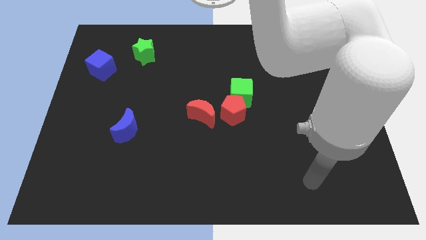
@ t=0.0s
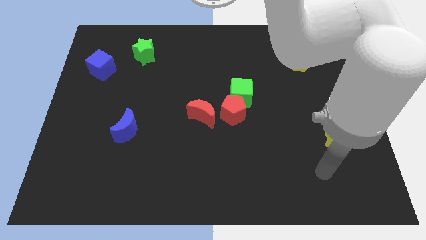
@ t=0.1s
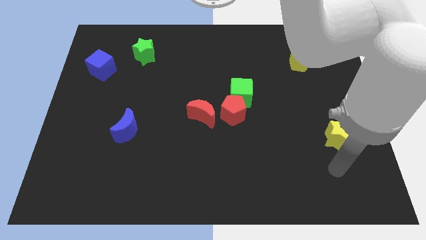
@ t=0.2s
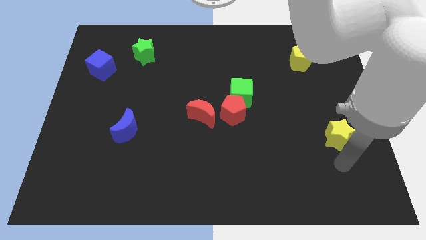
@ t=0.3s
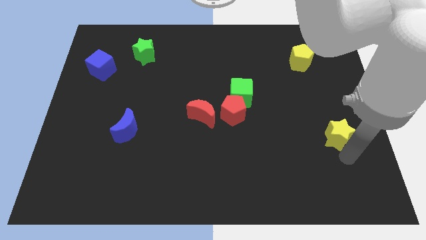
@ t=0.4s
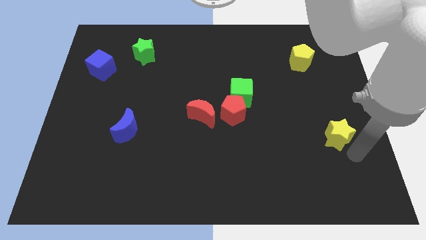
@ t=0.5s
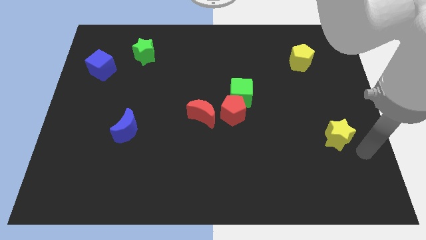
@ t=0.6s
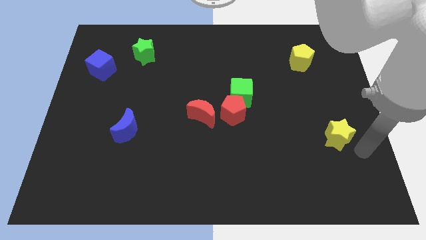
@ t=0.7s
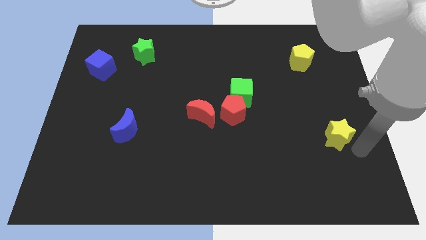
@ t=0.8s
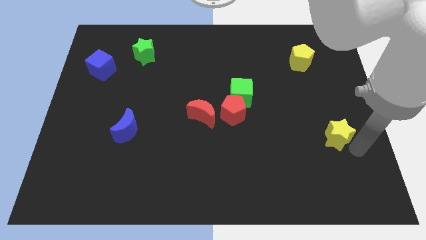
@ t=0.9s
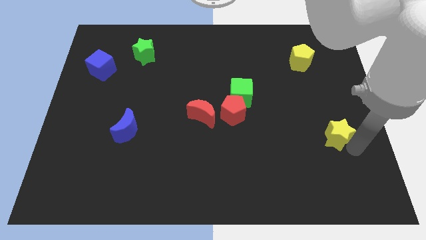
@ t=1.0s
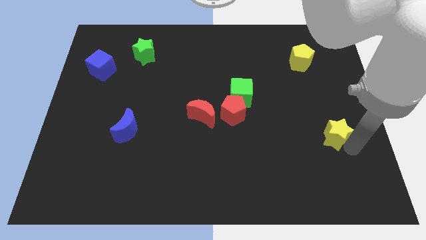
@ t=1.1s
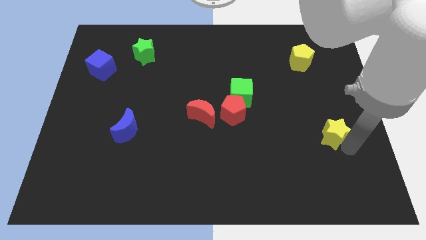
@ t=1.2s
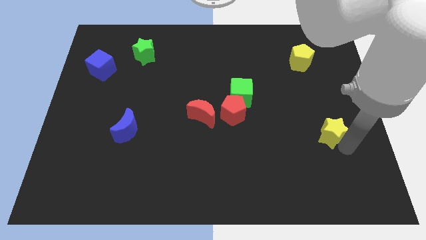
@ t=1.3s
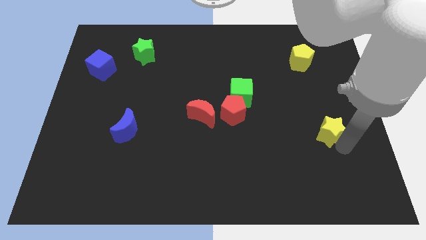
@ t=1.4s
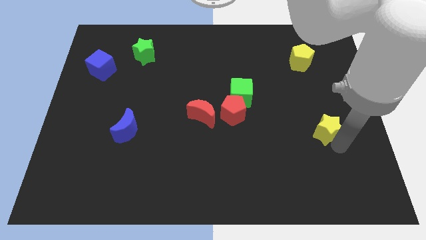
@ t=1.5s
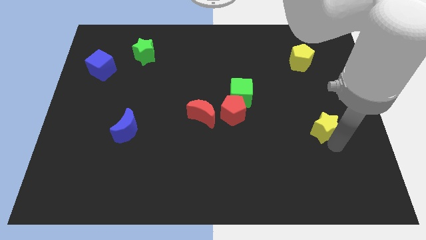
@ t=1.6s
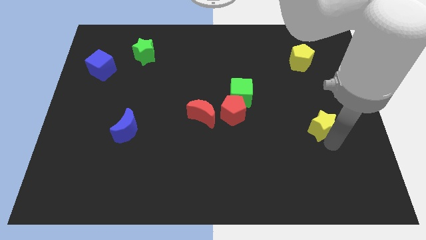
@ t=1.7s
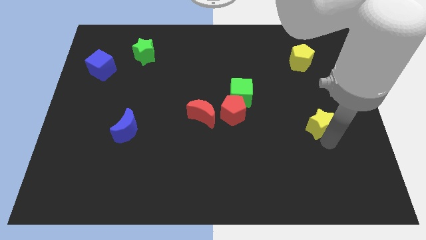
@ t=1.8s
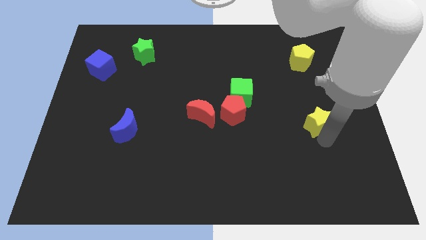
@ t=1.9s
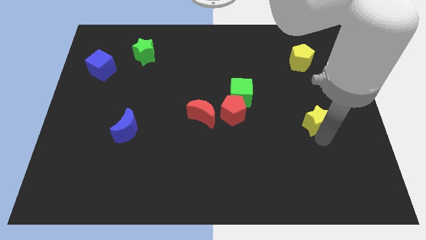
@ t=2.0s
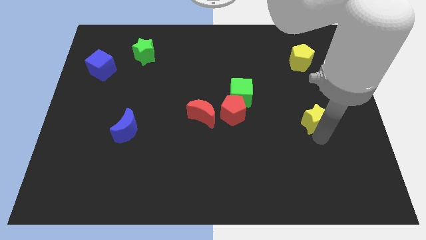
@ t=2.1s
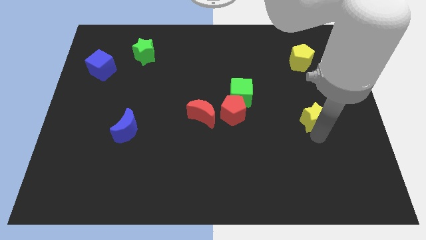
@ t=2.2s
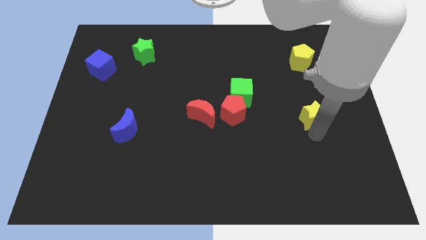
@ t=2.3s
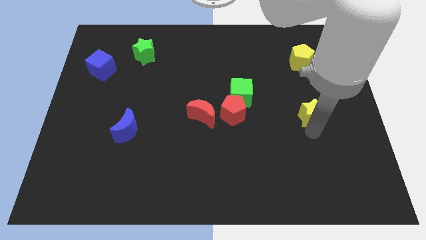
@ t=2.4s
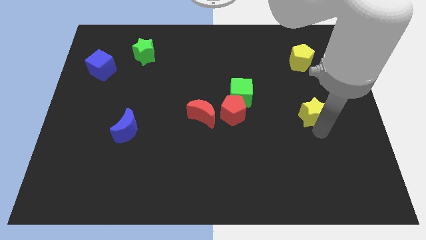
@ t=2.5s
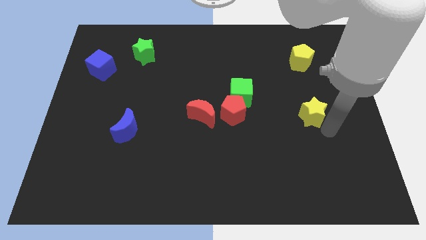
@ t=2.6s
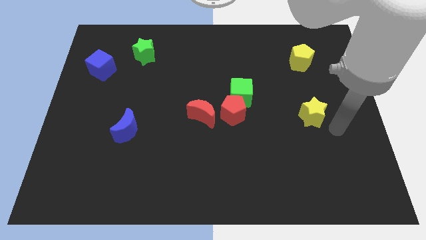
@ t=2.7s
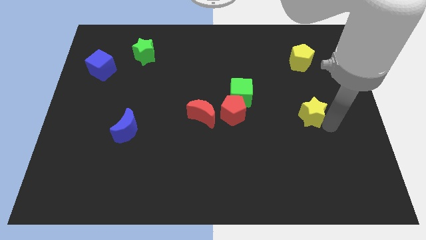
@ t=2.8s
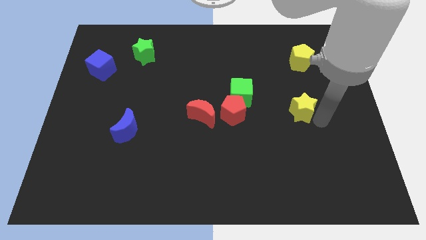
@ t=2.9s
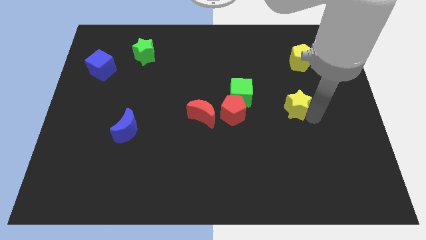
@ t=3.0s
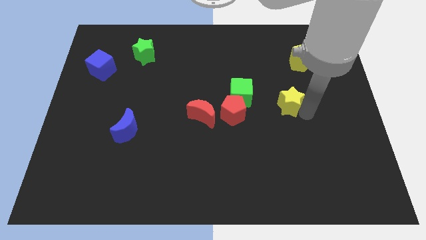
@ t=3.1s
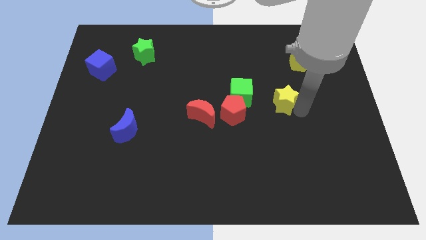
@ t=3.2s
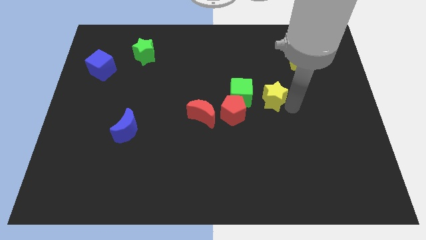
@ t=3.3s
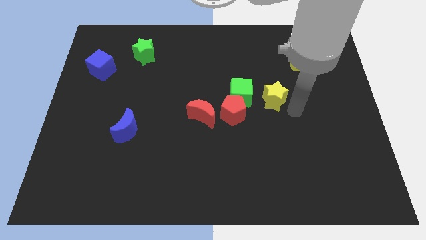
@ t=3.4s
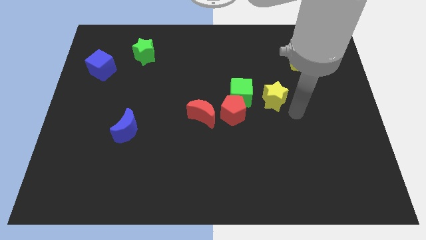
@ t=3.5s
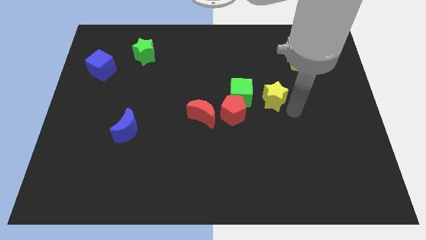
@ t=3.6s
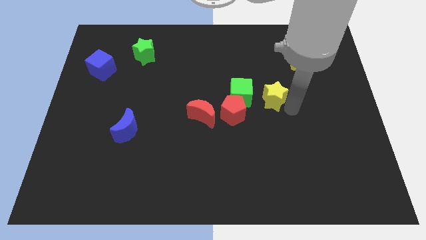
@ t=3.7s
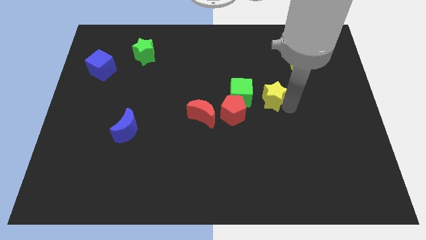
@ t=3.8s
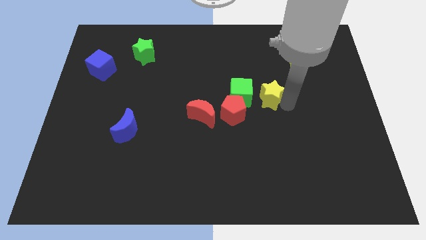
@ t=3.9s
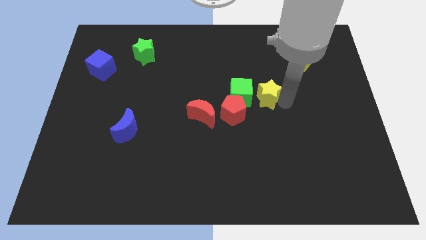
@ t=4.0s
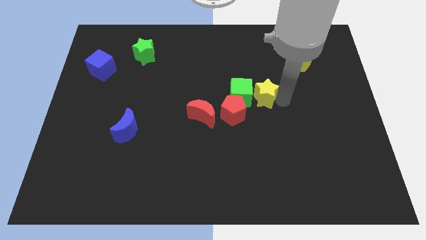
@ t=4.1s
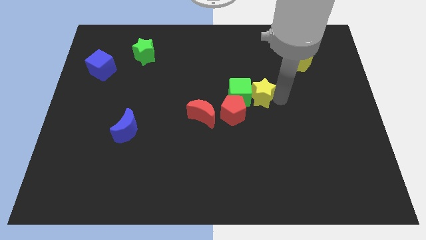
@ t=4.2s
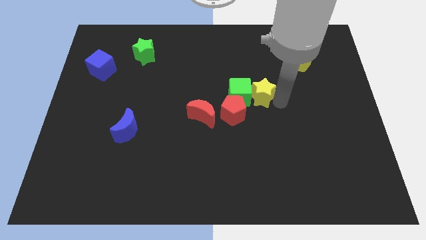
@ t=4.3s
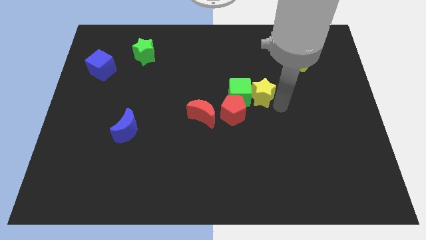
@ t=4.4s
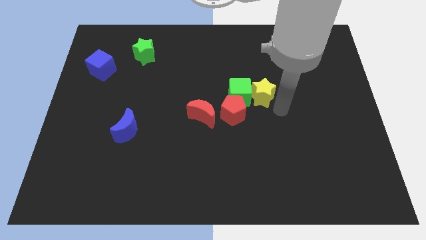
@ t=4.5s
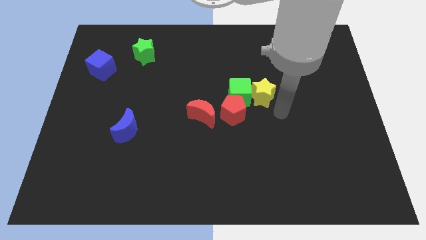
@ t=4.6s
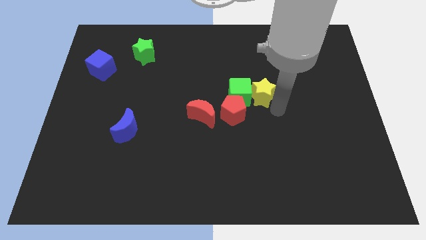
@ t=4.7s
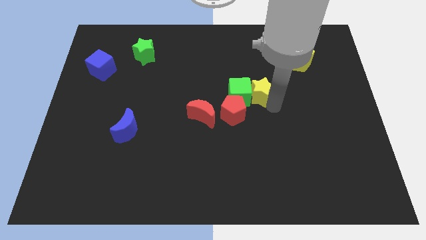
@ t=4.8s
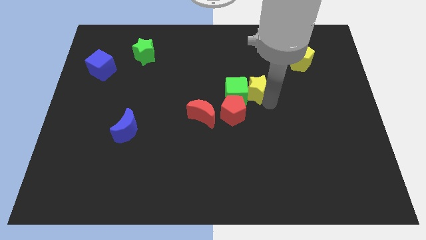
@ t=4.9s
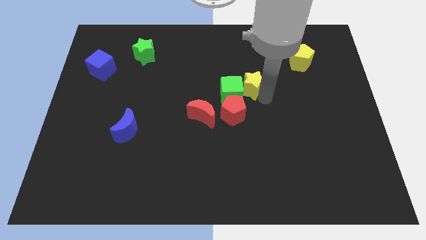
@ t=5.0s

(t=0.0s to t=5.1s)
push the yellow star above the red pentagon

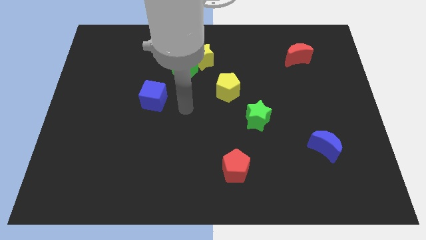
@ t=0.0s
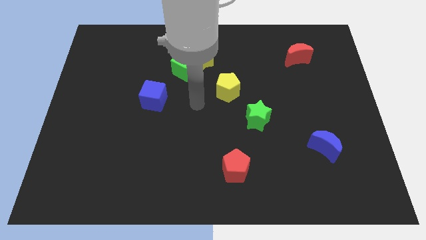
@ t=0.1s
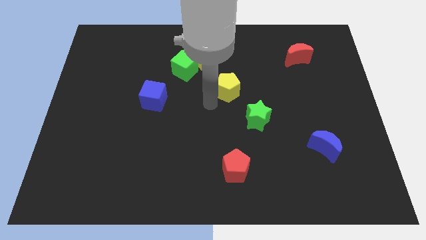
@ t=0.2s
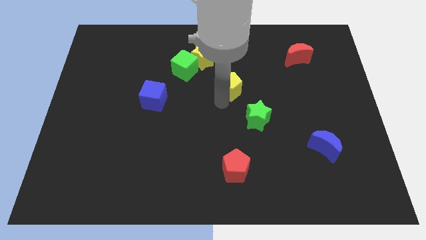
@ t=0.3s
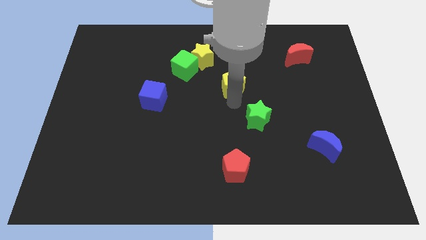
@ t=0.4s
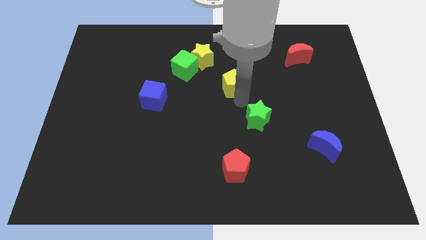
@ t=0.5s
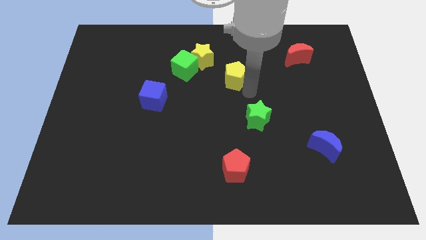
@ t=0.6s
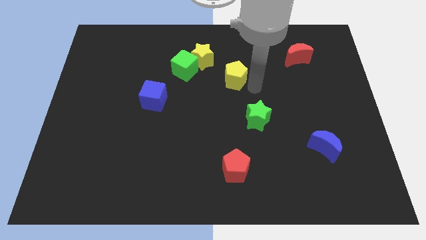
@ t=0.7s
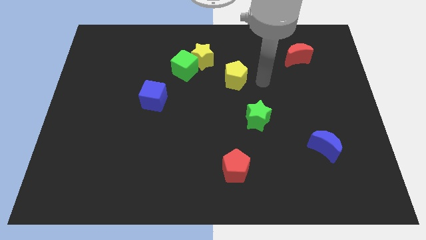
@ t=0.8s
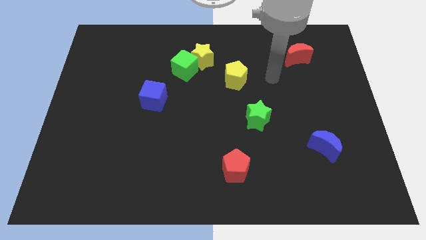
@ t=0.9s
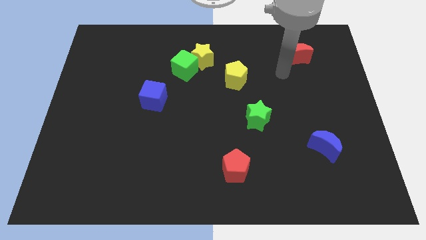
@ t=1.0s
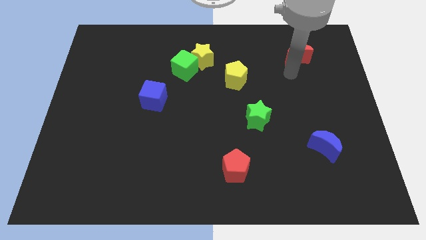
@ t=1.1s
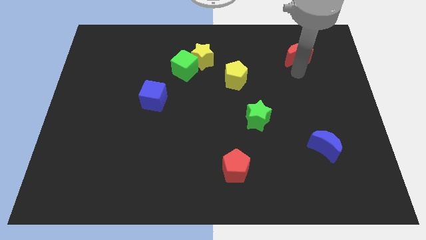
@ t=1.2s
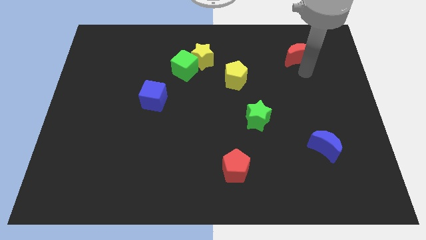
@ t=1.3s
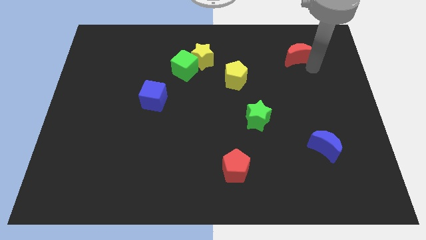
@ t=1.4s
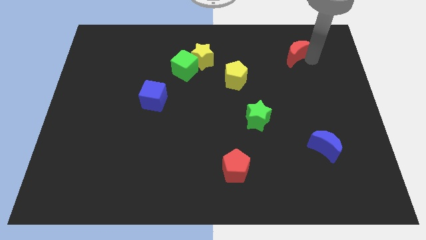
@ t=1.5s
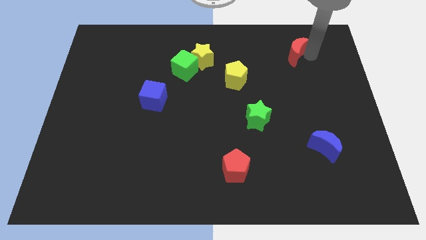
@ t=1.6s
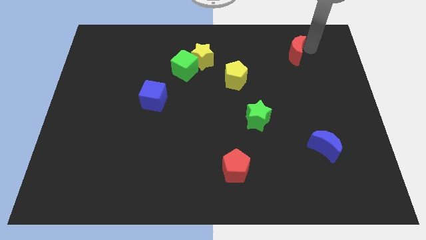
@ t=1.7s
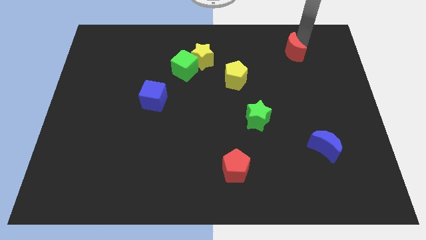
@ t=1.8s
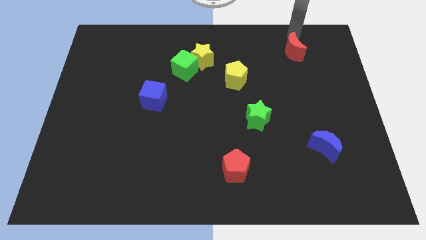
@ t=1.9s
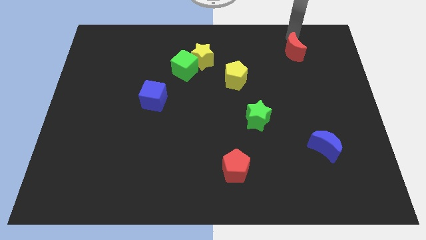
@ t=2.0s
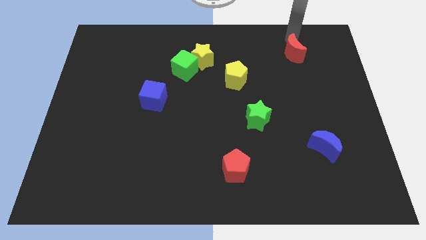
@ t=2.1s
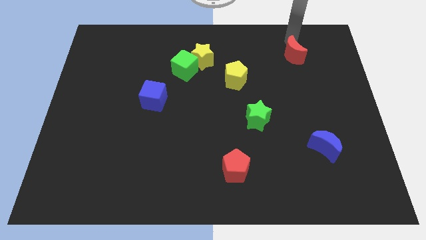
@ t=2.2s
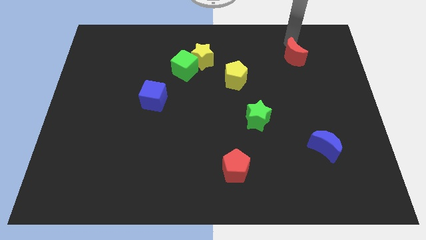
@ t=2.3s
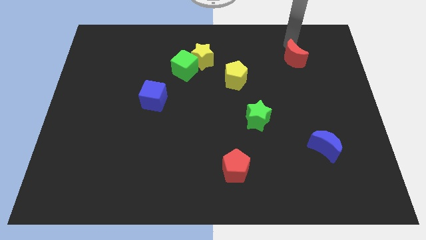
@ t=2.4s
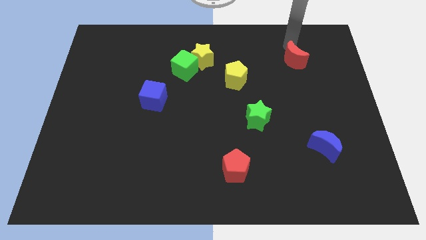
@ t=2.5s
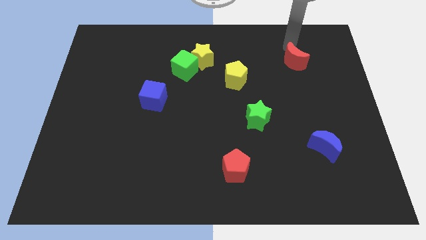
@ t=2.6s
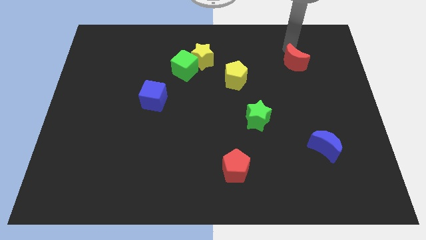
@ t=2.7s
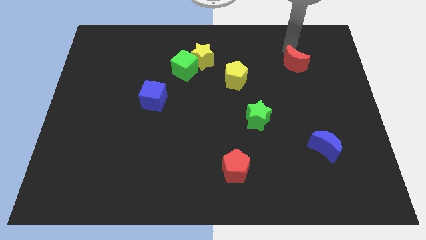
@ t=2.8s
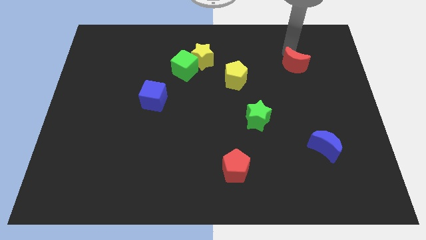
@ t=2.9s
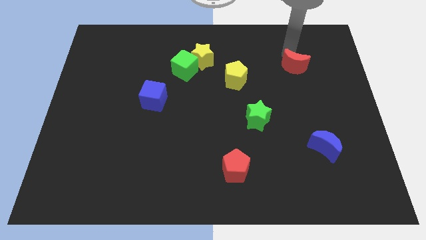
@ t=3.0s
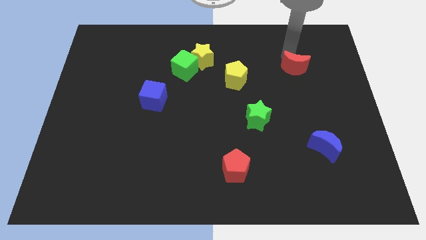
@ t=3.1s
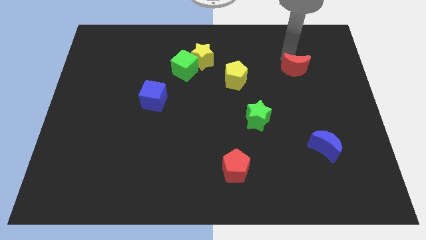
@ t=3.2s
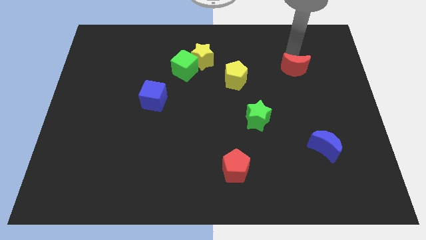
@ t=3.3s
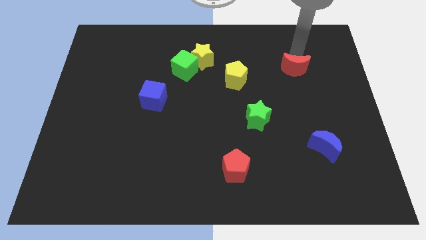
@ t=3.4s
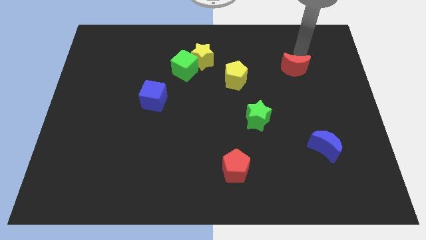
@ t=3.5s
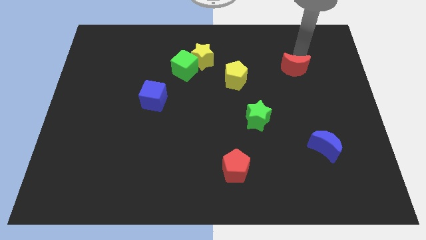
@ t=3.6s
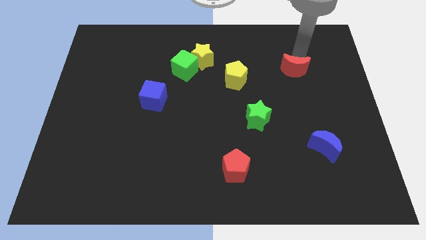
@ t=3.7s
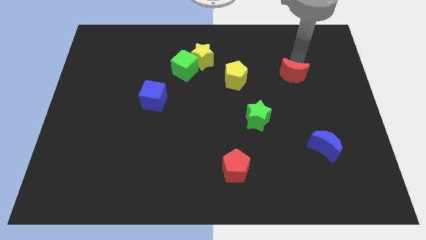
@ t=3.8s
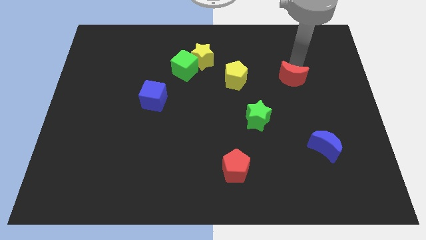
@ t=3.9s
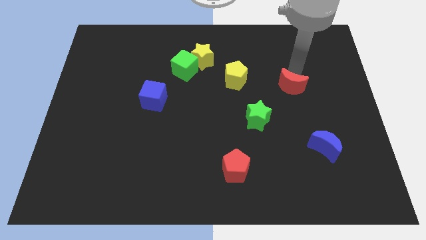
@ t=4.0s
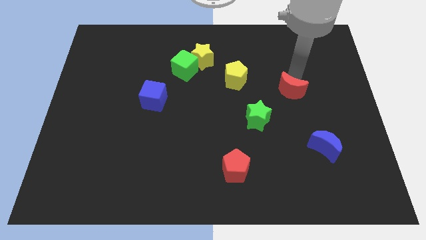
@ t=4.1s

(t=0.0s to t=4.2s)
move the red moon to the top right side of the green star
